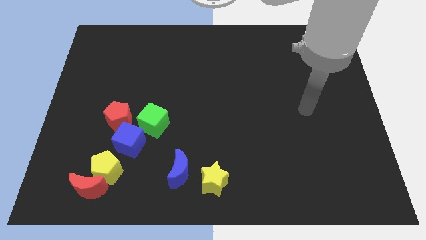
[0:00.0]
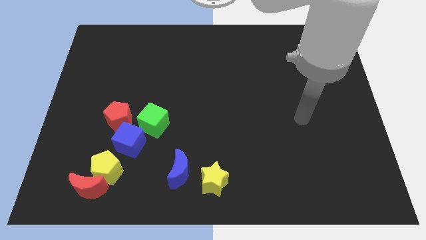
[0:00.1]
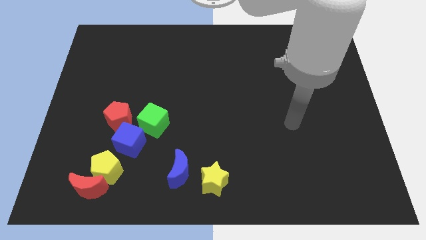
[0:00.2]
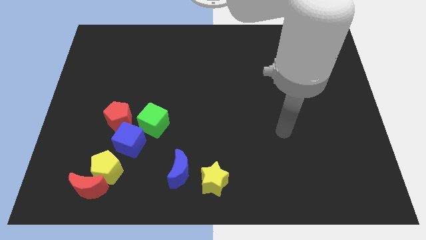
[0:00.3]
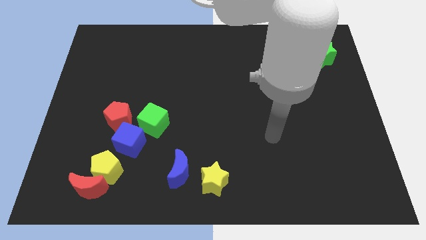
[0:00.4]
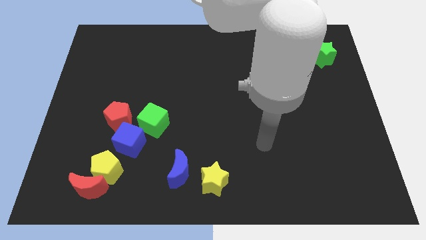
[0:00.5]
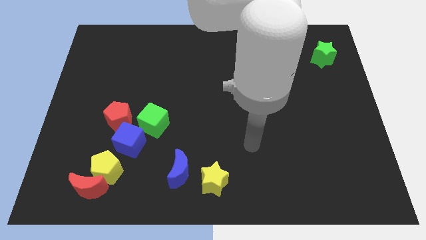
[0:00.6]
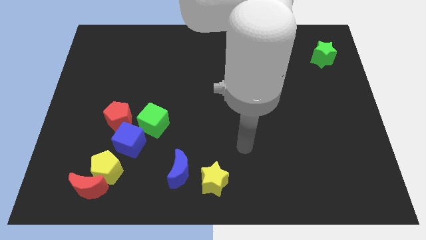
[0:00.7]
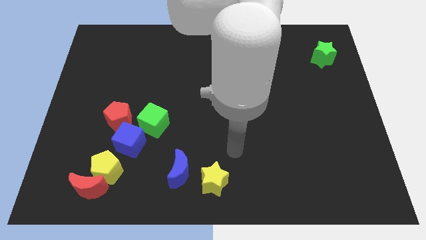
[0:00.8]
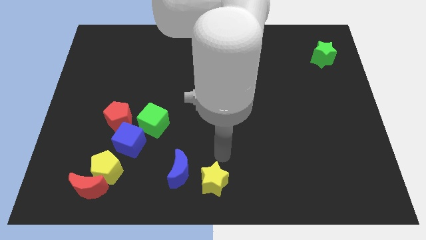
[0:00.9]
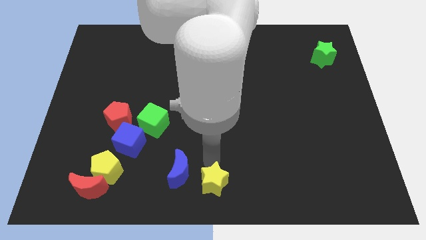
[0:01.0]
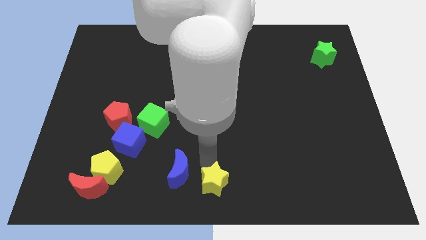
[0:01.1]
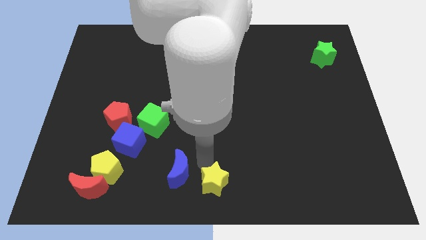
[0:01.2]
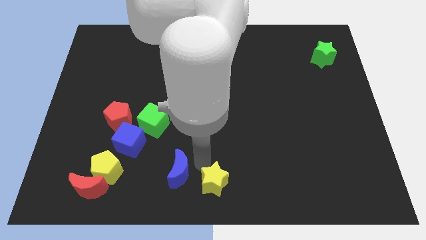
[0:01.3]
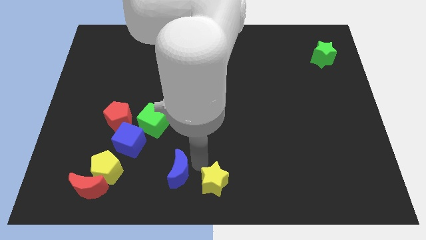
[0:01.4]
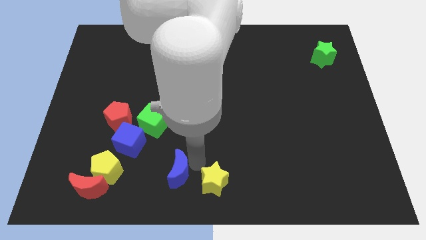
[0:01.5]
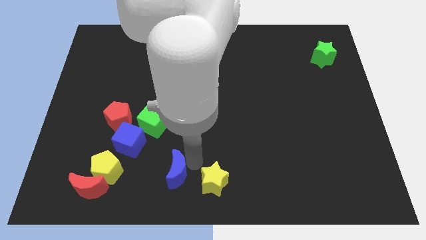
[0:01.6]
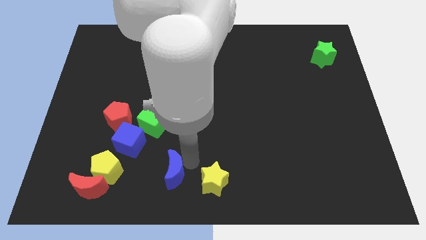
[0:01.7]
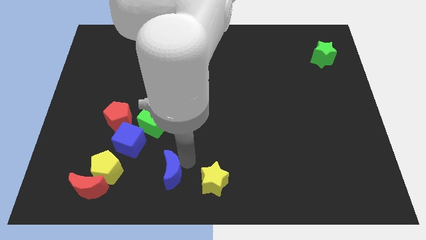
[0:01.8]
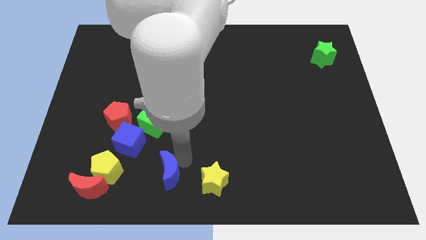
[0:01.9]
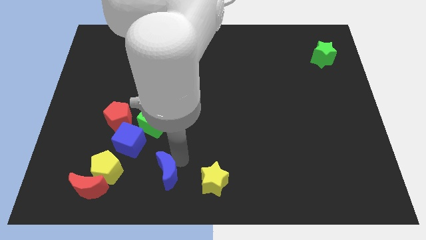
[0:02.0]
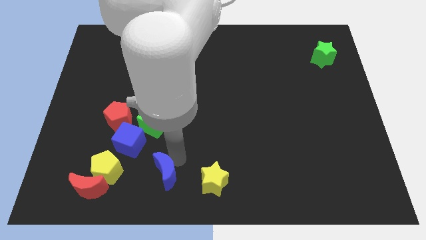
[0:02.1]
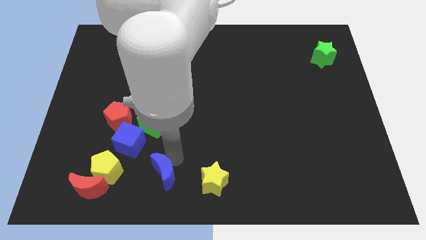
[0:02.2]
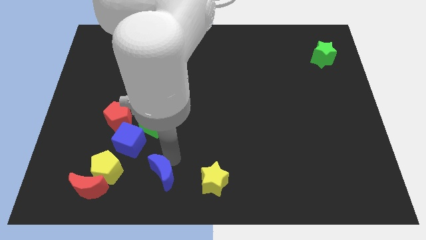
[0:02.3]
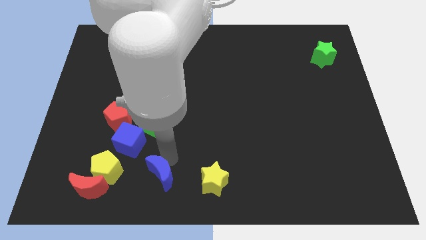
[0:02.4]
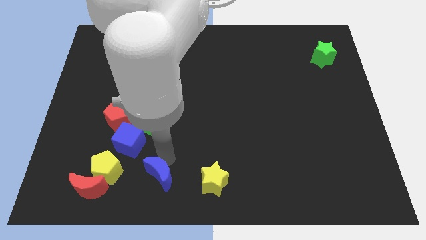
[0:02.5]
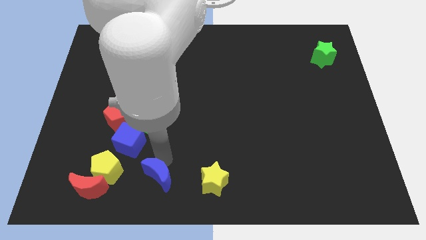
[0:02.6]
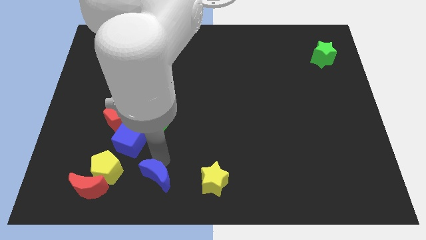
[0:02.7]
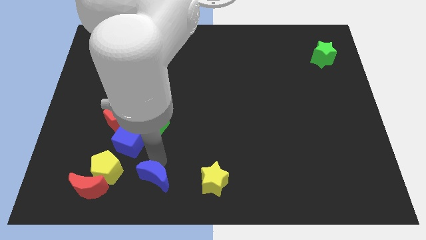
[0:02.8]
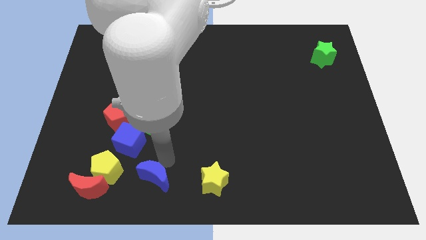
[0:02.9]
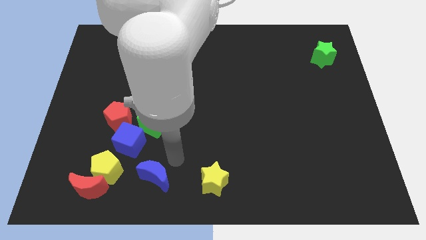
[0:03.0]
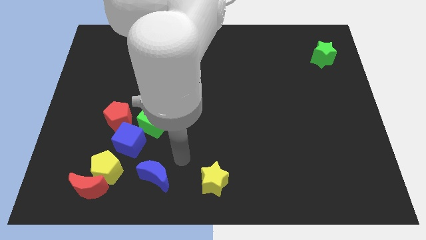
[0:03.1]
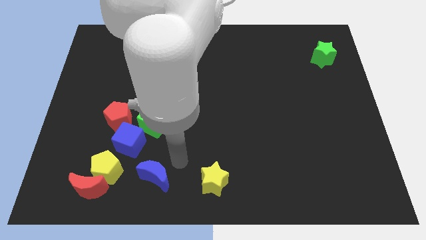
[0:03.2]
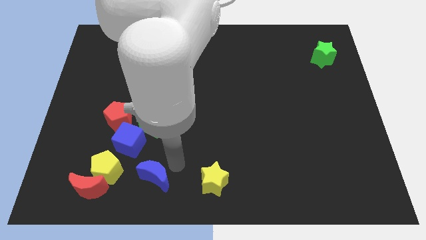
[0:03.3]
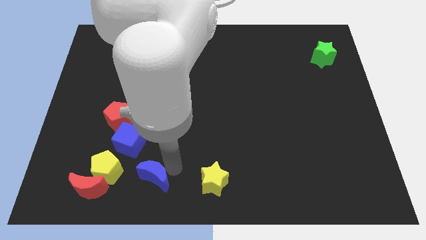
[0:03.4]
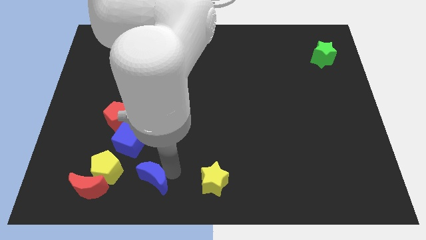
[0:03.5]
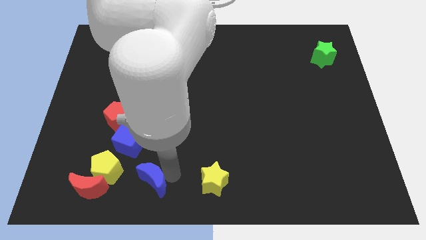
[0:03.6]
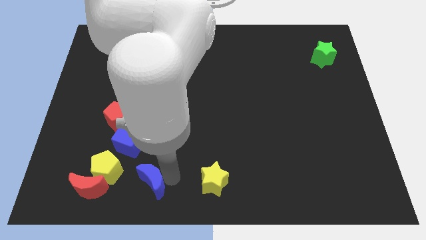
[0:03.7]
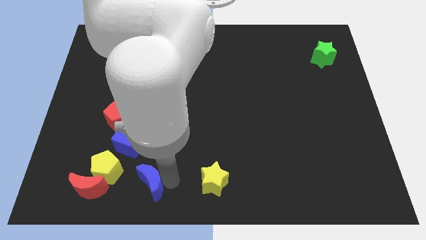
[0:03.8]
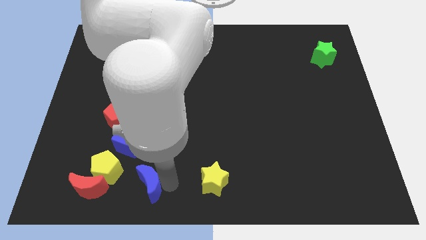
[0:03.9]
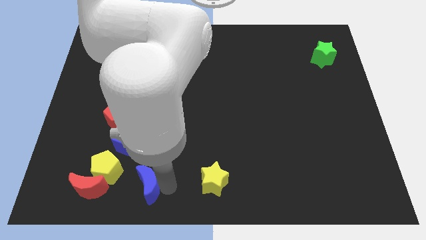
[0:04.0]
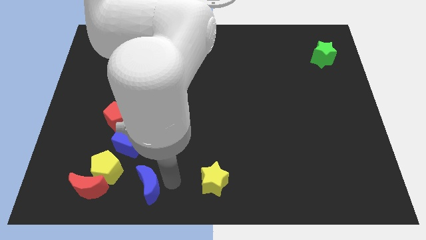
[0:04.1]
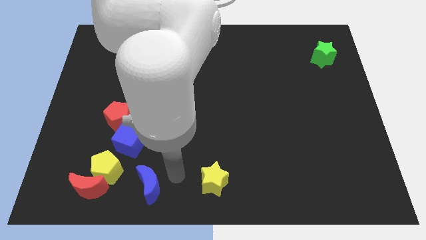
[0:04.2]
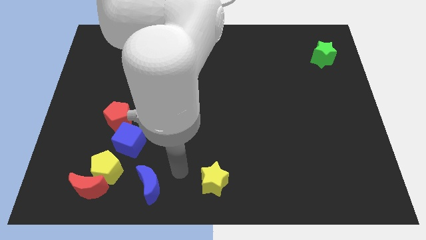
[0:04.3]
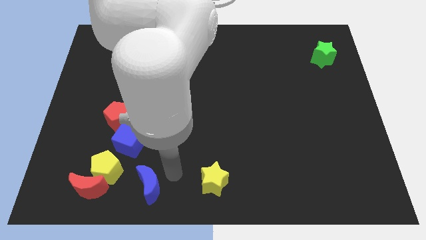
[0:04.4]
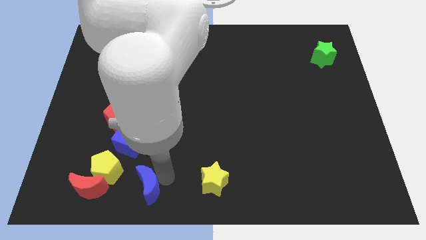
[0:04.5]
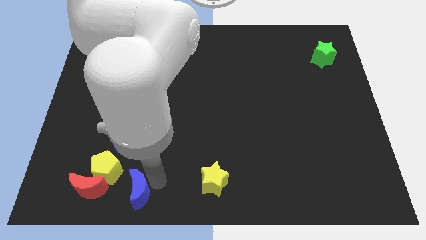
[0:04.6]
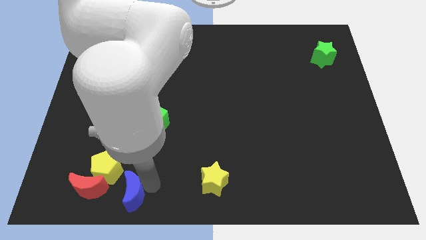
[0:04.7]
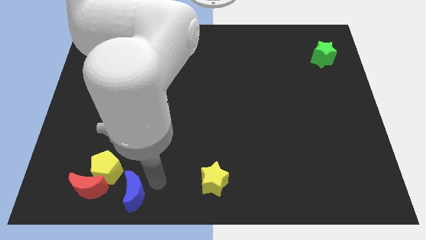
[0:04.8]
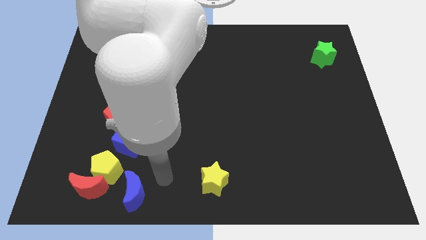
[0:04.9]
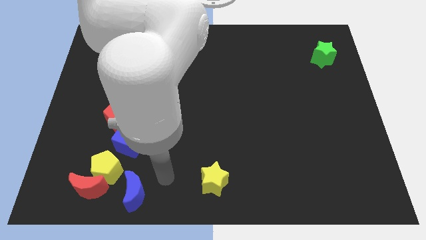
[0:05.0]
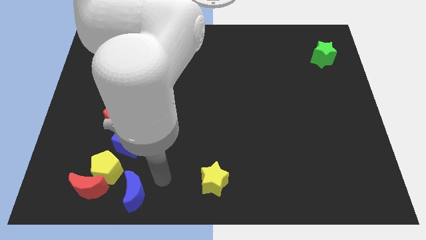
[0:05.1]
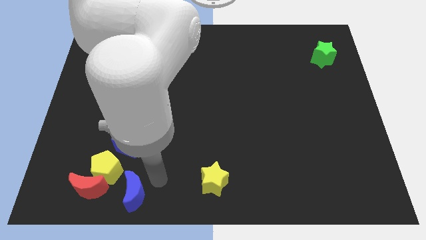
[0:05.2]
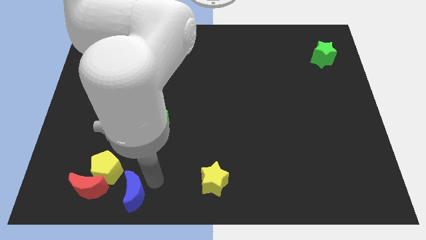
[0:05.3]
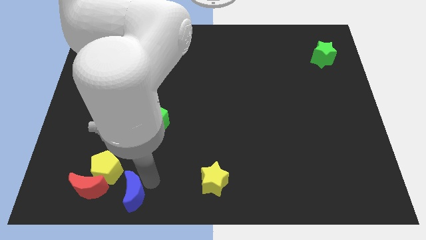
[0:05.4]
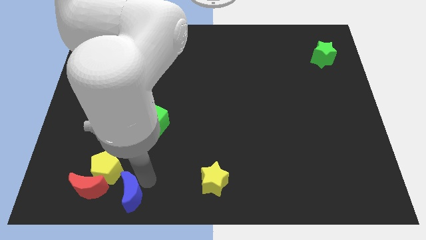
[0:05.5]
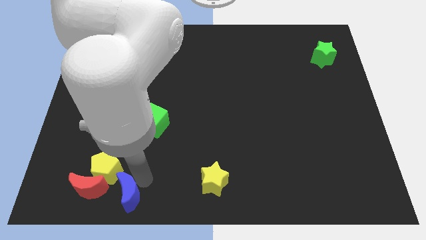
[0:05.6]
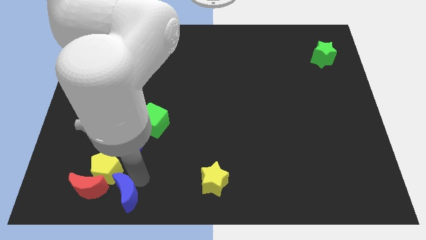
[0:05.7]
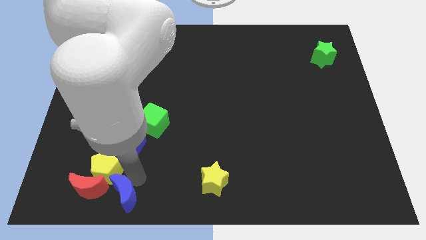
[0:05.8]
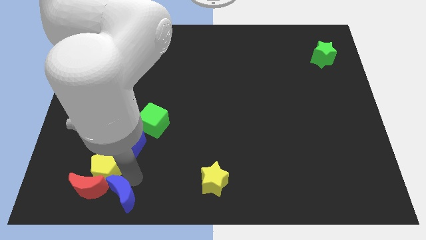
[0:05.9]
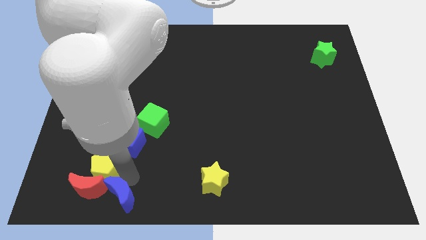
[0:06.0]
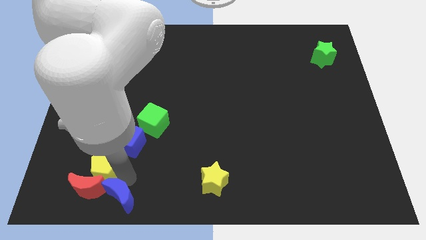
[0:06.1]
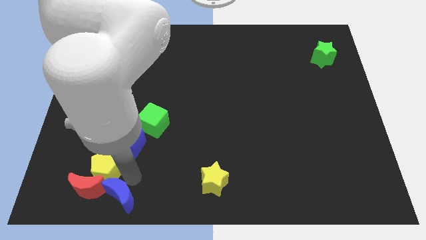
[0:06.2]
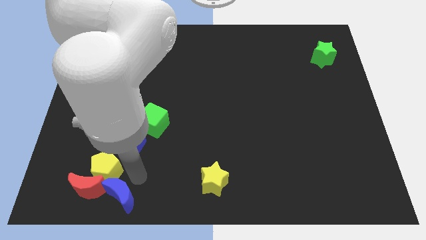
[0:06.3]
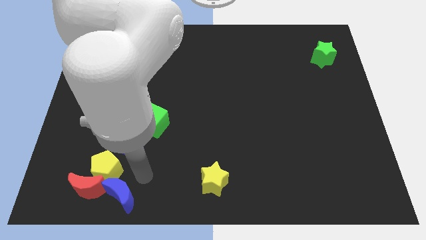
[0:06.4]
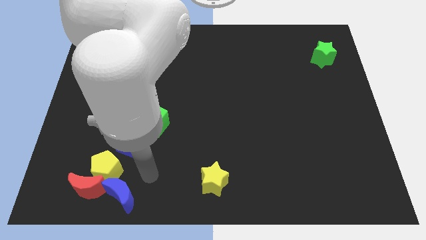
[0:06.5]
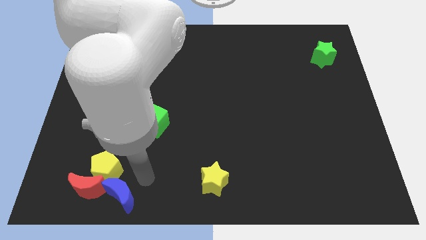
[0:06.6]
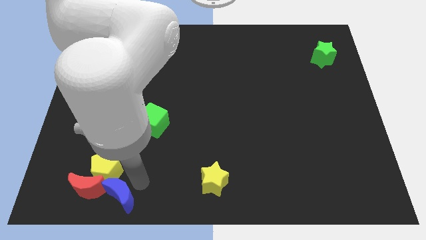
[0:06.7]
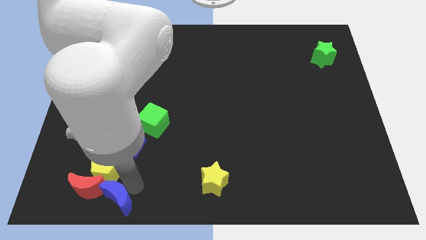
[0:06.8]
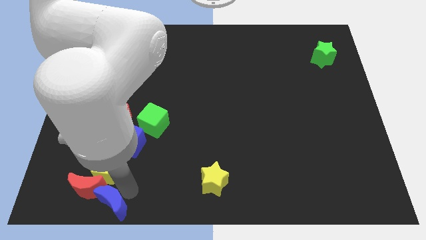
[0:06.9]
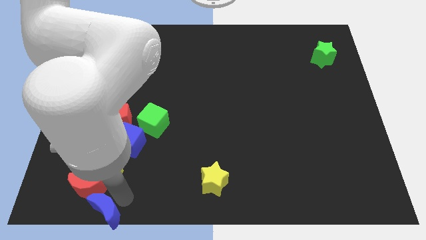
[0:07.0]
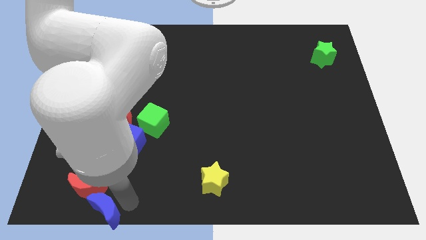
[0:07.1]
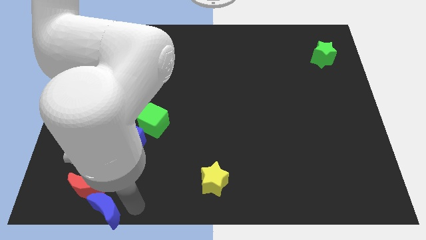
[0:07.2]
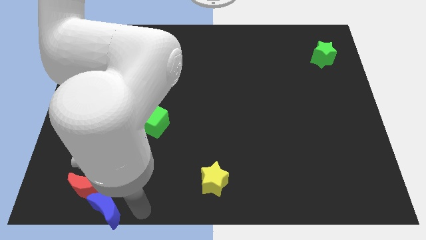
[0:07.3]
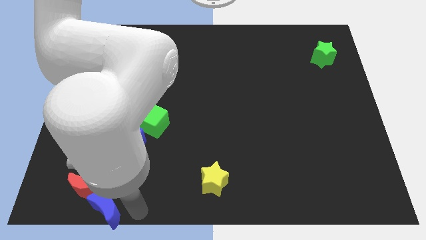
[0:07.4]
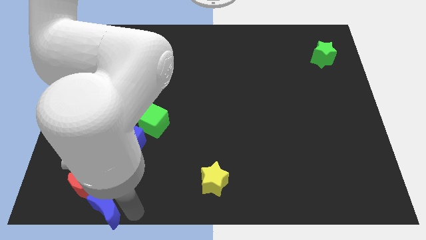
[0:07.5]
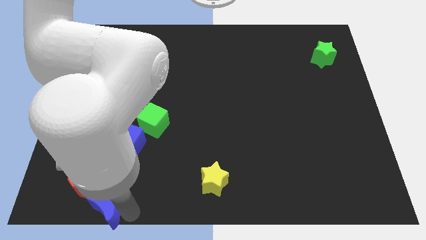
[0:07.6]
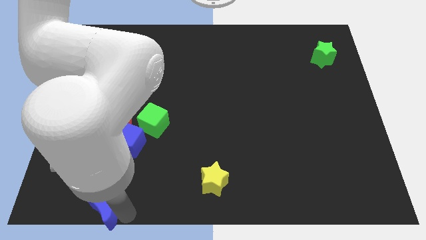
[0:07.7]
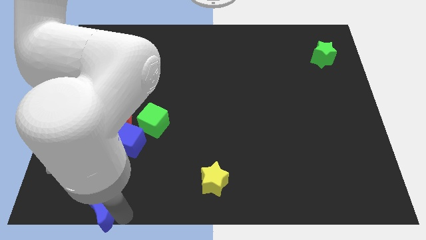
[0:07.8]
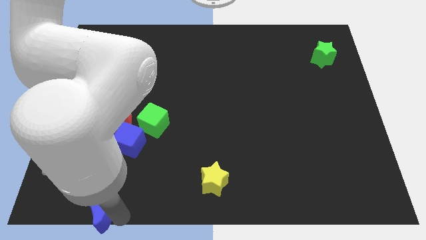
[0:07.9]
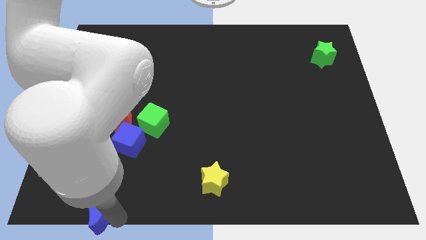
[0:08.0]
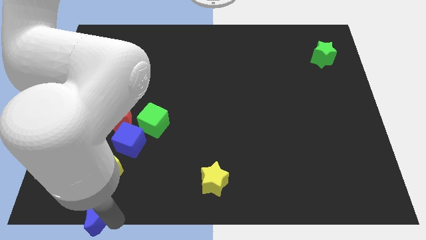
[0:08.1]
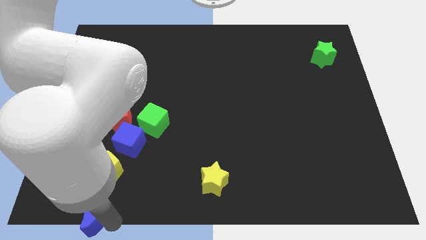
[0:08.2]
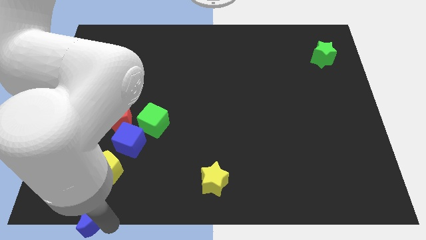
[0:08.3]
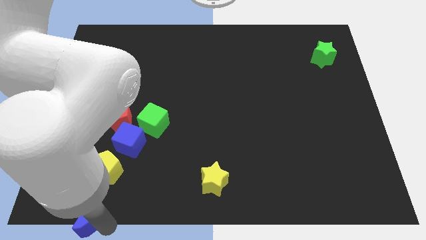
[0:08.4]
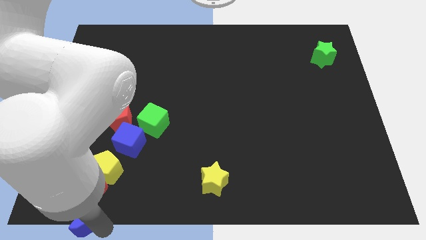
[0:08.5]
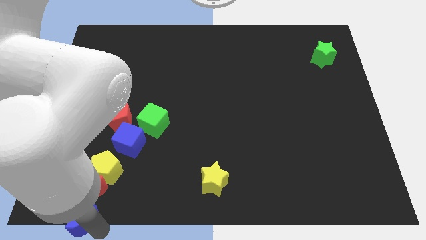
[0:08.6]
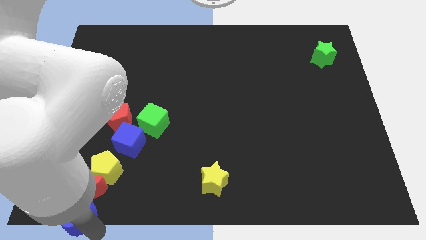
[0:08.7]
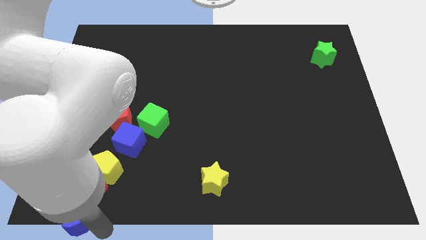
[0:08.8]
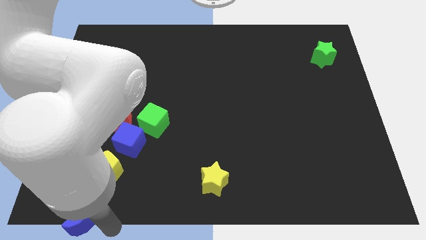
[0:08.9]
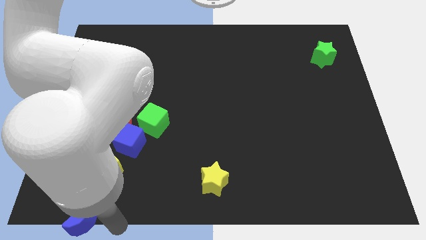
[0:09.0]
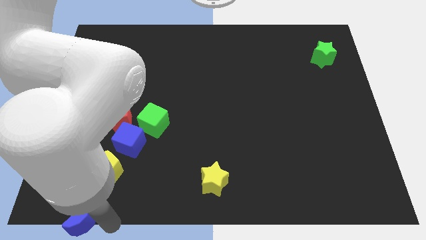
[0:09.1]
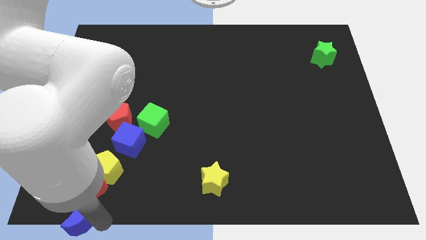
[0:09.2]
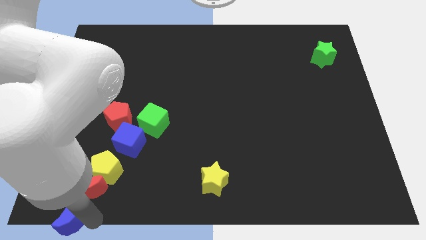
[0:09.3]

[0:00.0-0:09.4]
push the blue moon to the bottom left of the board
